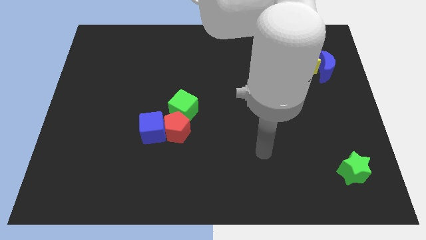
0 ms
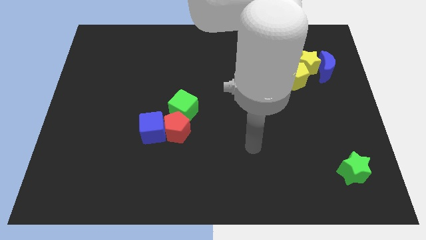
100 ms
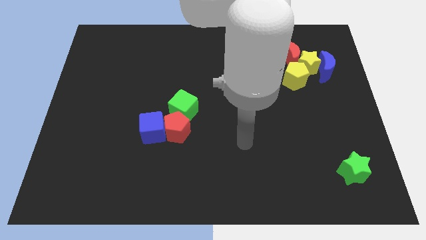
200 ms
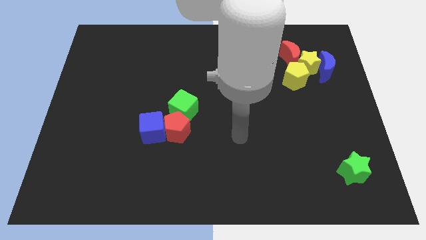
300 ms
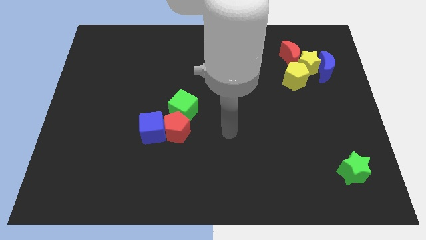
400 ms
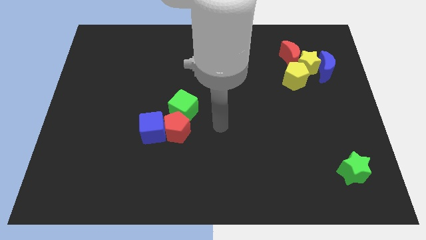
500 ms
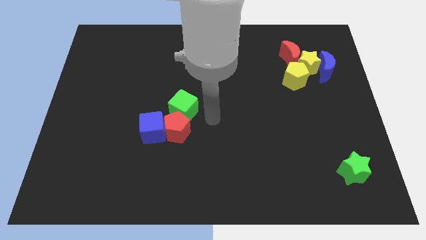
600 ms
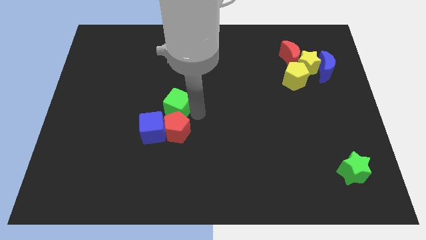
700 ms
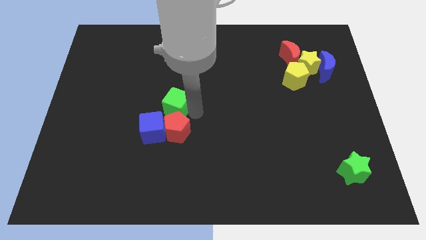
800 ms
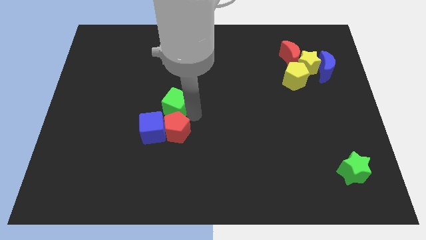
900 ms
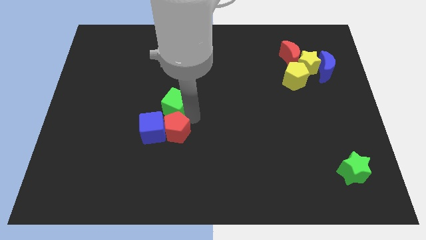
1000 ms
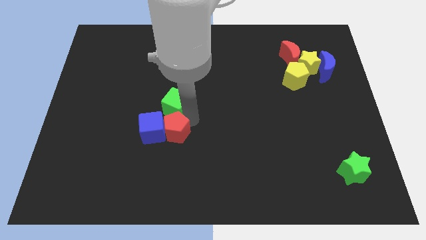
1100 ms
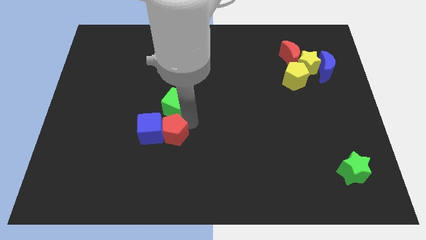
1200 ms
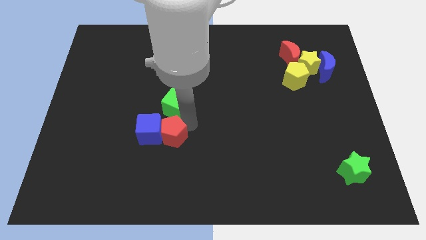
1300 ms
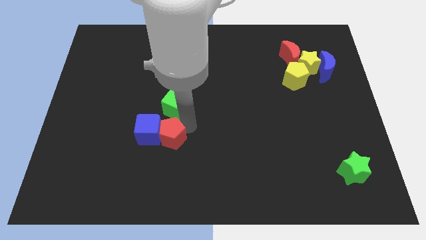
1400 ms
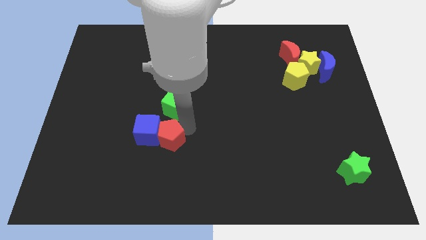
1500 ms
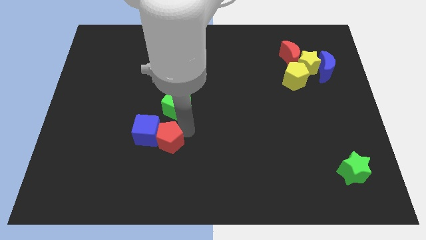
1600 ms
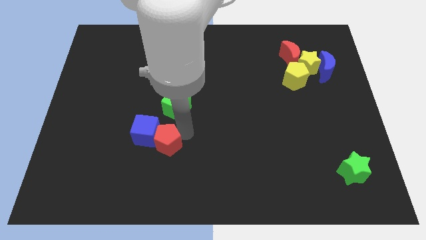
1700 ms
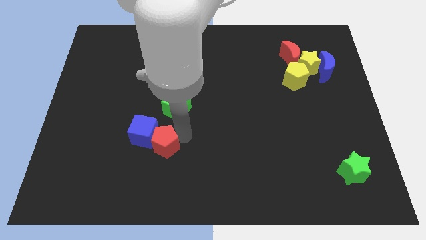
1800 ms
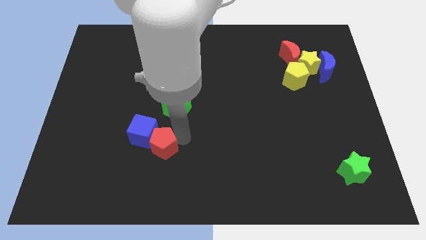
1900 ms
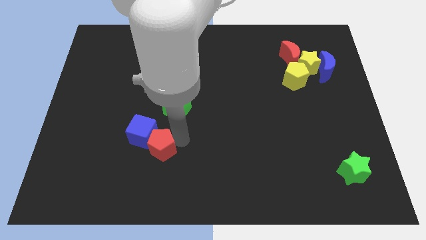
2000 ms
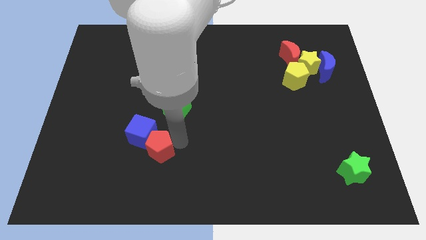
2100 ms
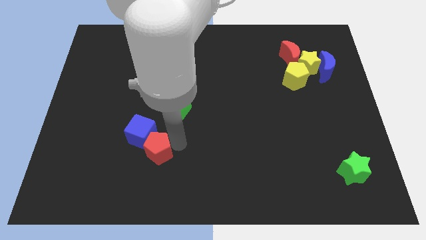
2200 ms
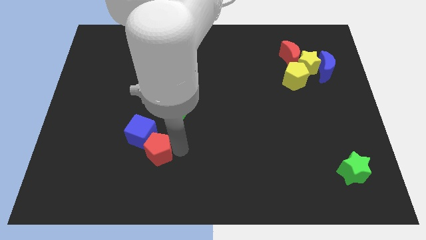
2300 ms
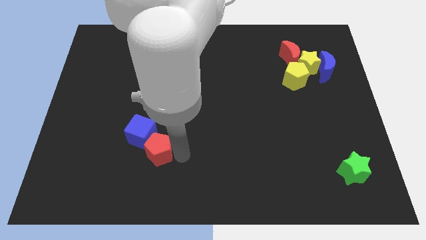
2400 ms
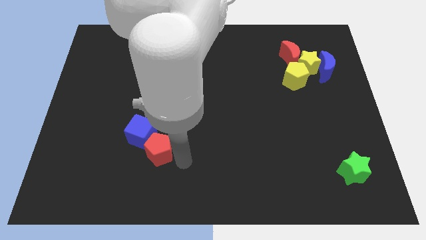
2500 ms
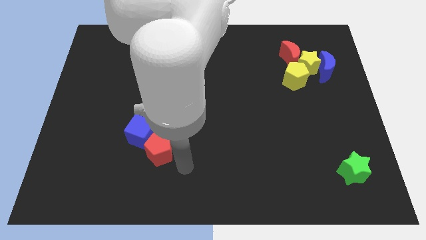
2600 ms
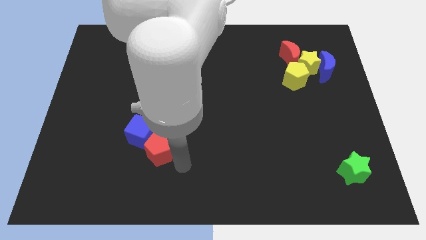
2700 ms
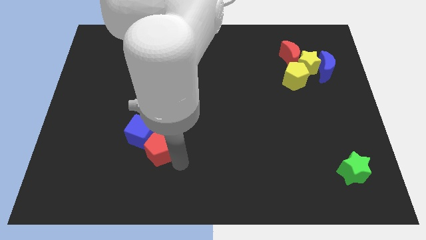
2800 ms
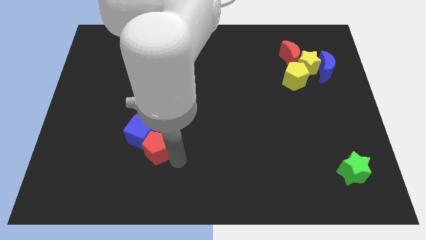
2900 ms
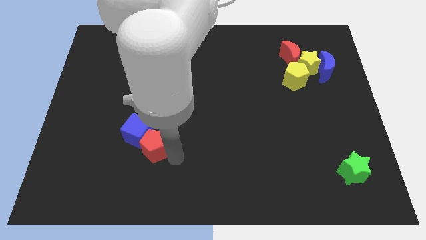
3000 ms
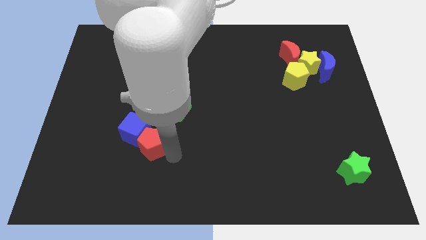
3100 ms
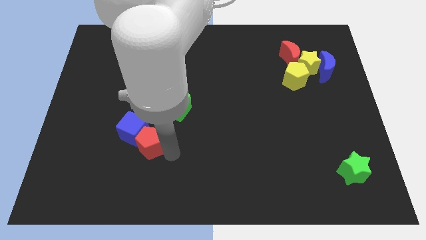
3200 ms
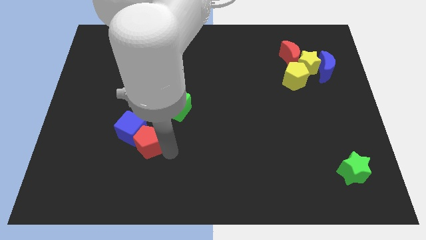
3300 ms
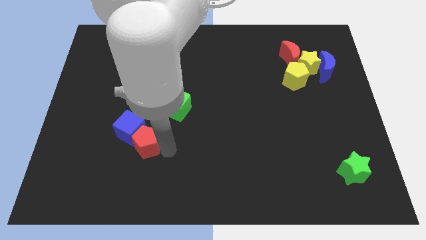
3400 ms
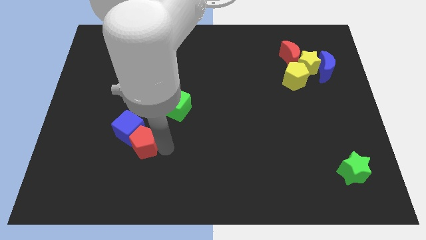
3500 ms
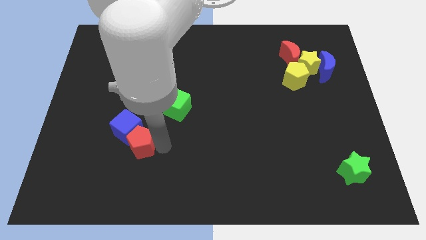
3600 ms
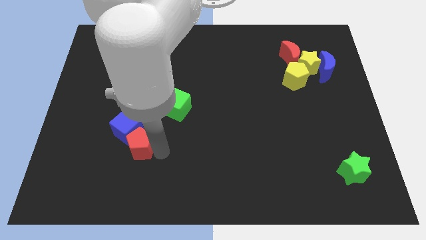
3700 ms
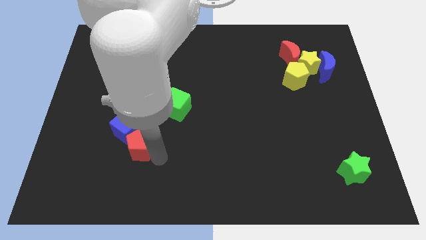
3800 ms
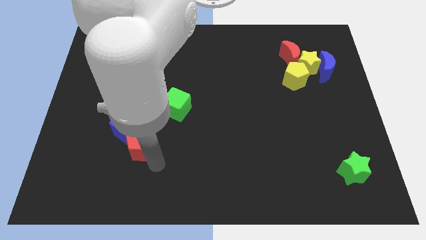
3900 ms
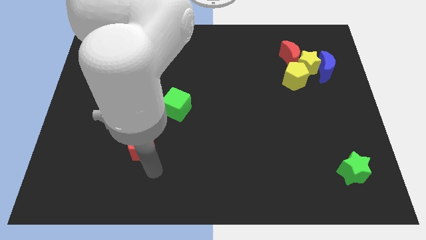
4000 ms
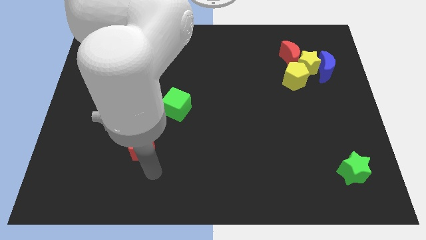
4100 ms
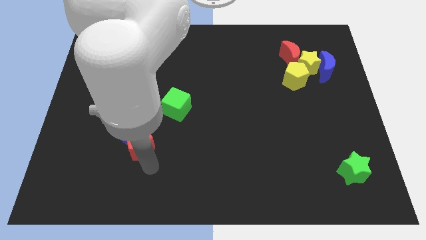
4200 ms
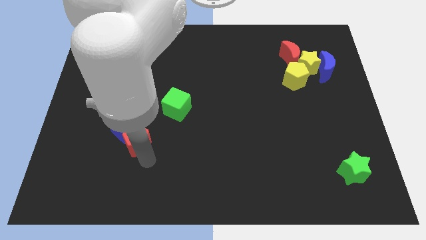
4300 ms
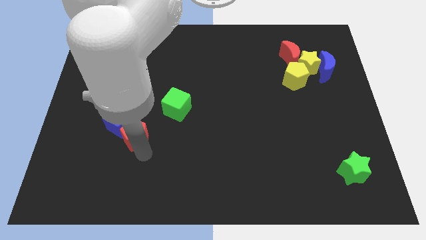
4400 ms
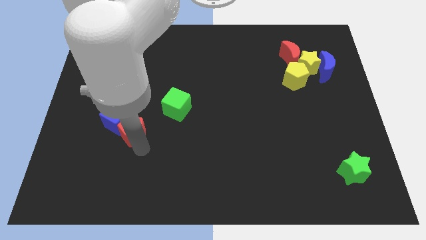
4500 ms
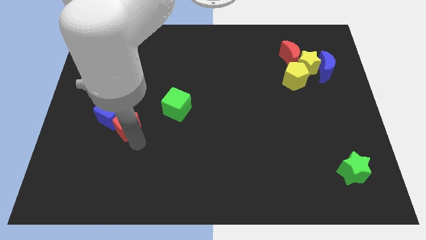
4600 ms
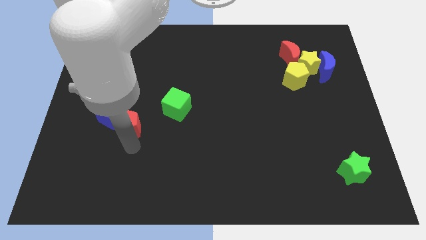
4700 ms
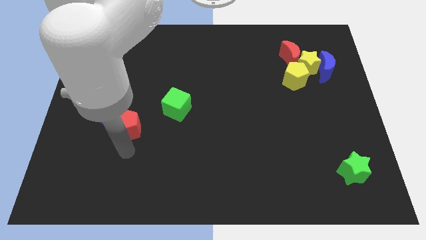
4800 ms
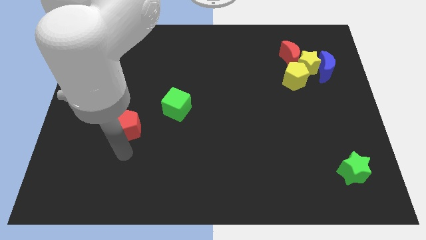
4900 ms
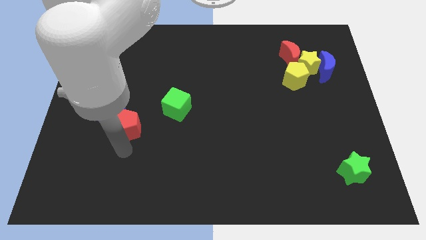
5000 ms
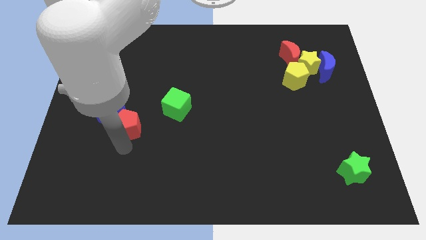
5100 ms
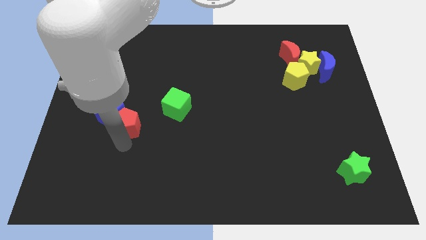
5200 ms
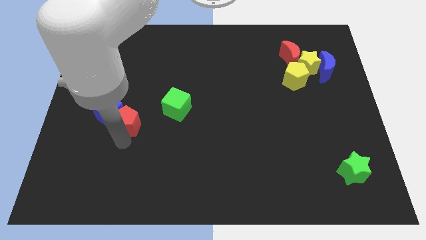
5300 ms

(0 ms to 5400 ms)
slide the red pentagon left of the green cube

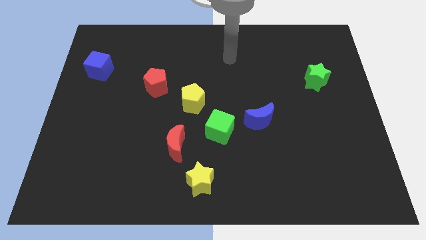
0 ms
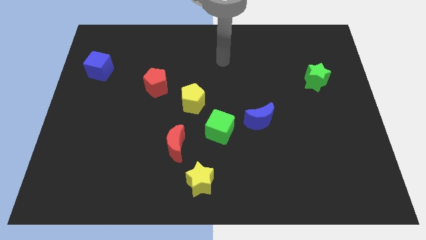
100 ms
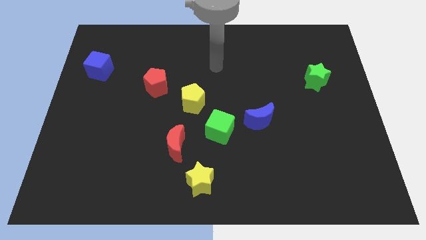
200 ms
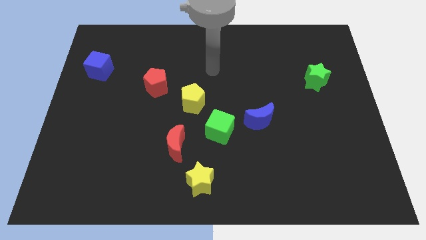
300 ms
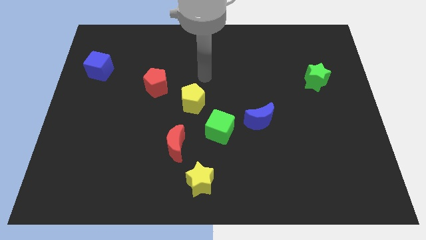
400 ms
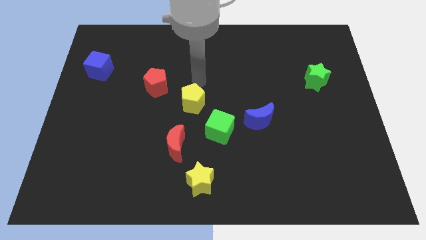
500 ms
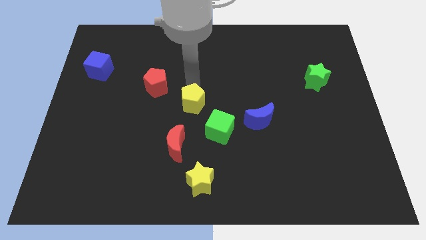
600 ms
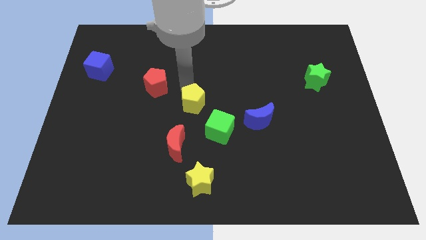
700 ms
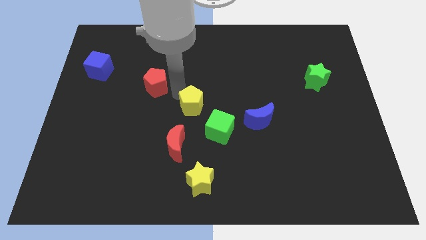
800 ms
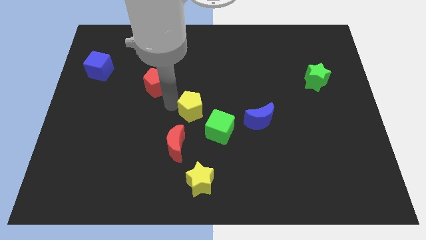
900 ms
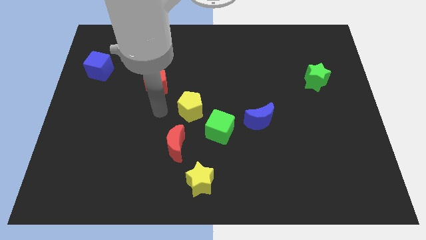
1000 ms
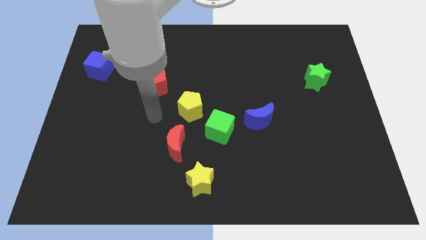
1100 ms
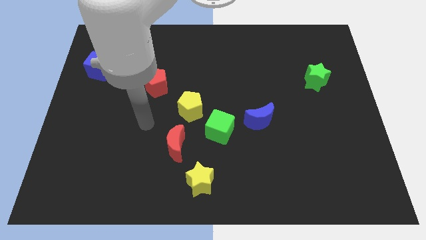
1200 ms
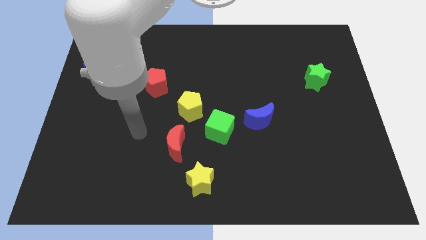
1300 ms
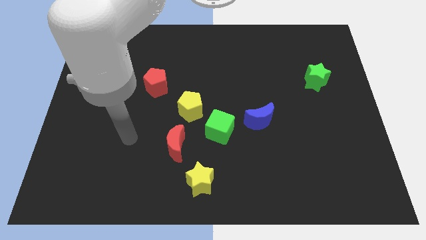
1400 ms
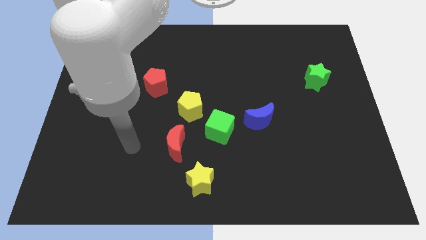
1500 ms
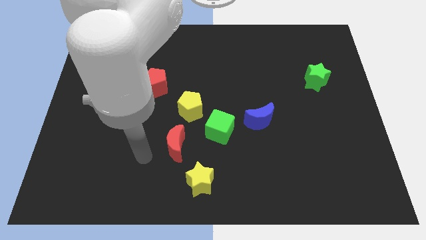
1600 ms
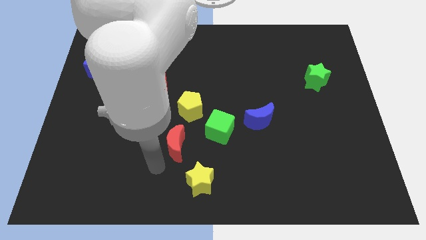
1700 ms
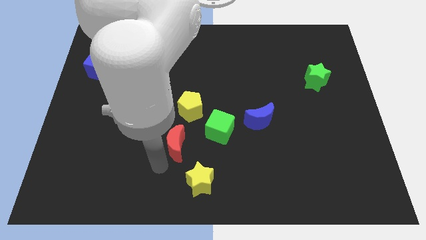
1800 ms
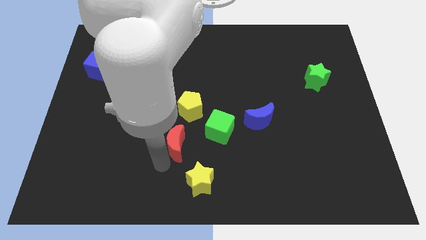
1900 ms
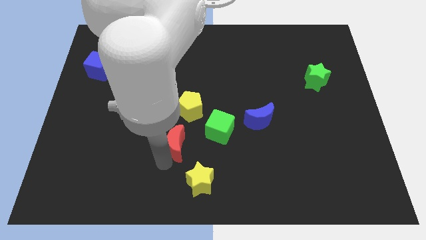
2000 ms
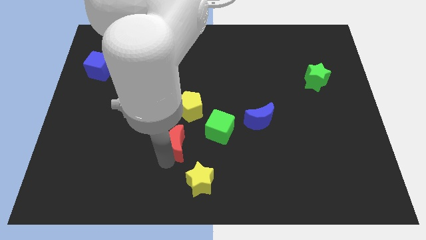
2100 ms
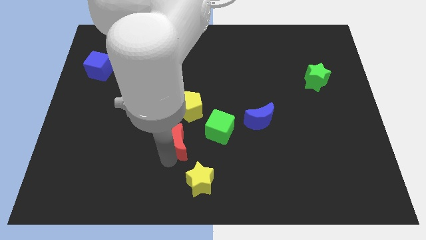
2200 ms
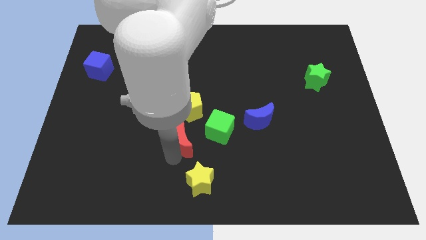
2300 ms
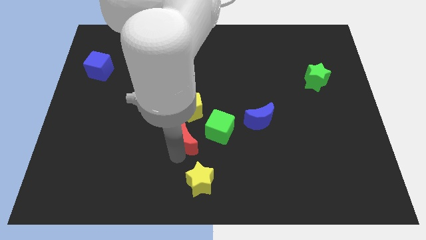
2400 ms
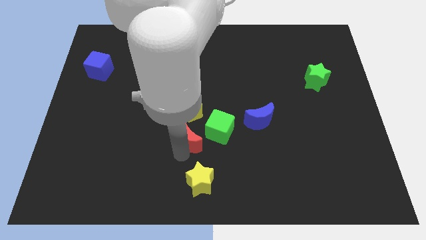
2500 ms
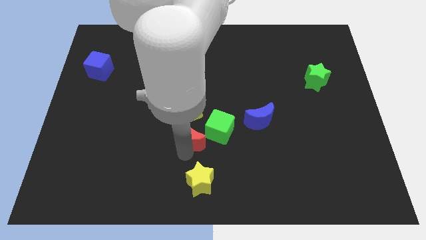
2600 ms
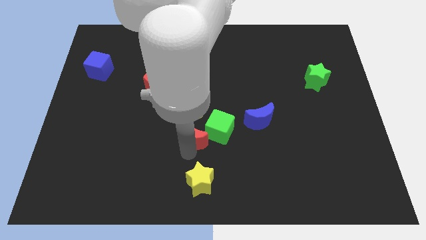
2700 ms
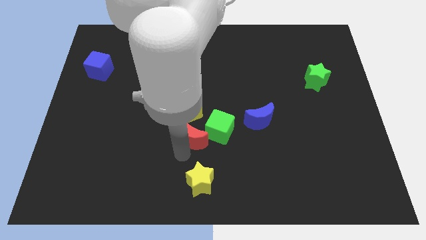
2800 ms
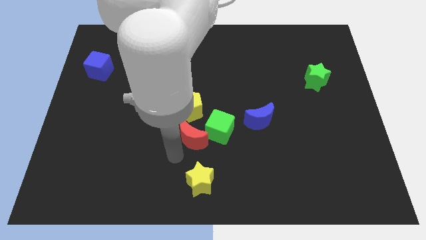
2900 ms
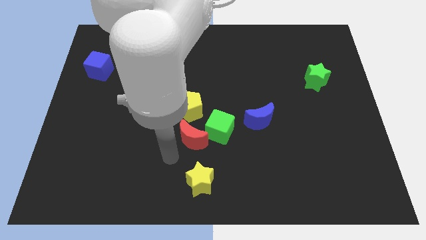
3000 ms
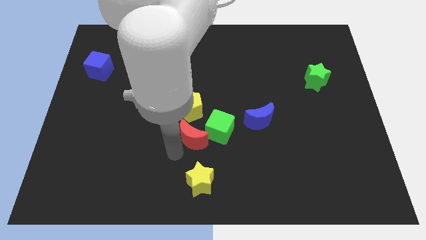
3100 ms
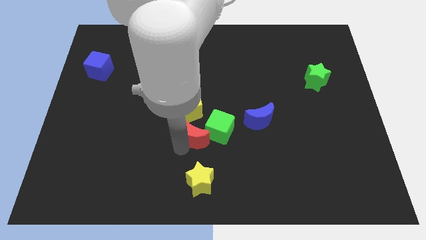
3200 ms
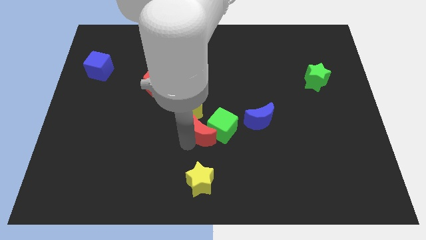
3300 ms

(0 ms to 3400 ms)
slide the red moon to the left of the blue moon
